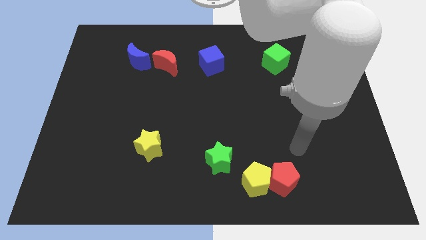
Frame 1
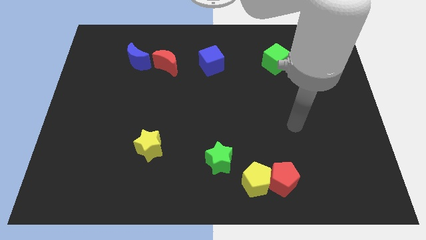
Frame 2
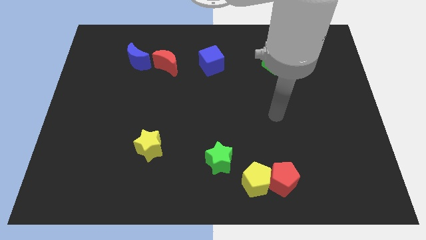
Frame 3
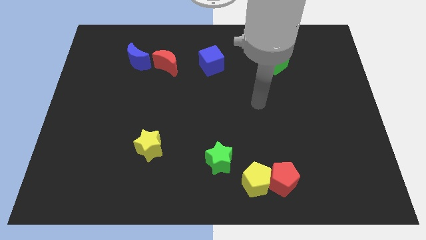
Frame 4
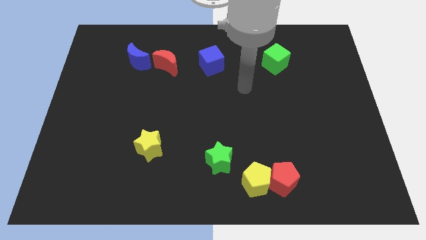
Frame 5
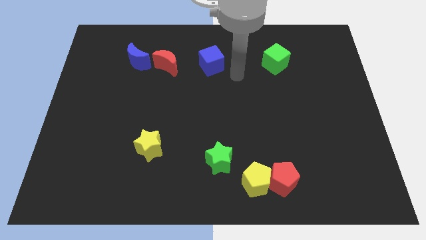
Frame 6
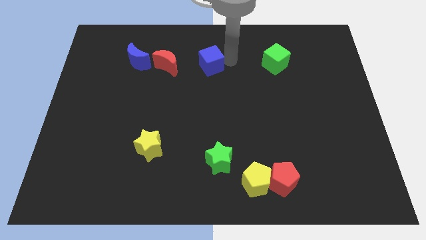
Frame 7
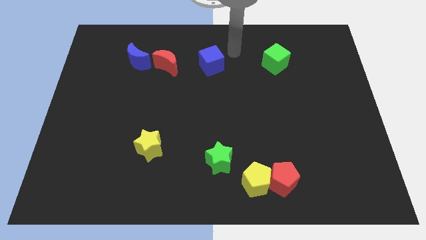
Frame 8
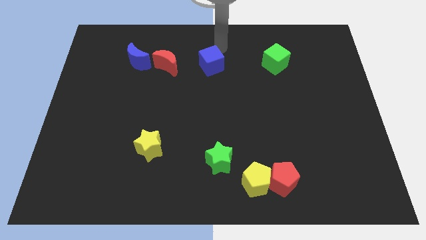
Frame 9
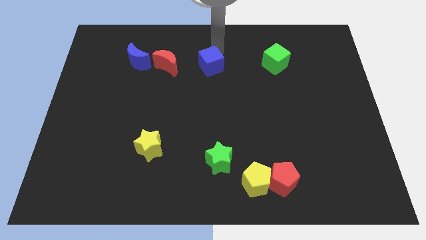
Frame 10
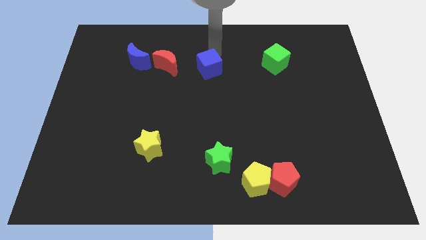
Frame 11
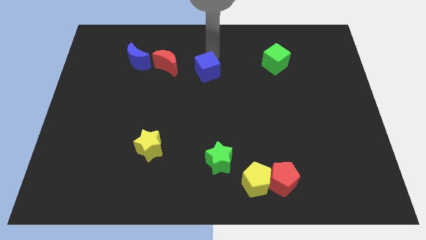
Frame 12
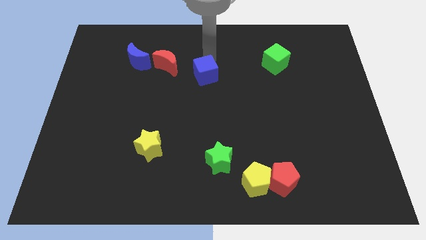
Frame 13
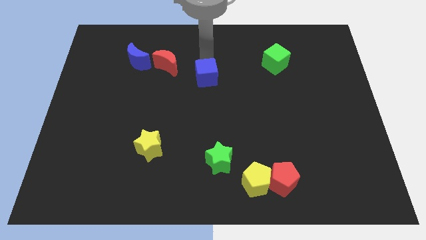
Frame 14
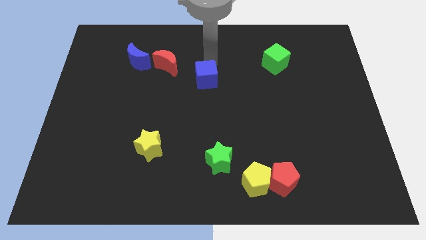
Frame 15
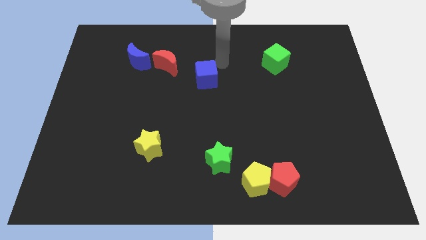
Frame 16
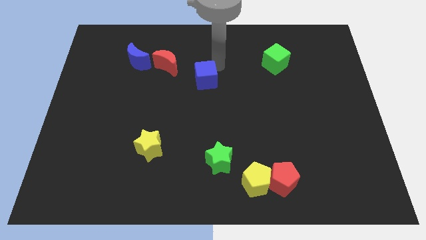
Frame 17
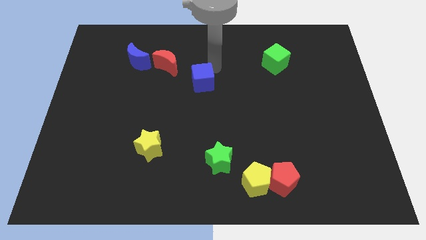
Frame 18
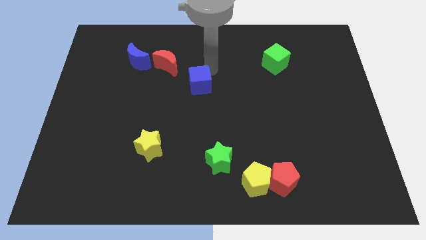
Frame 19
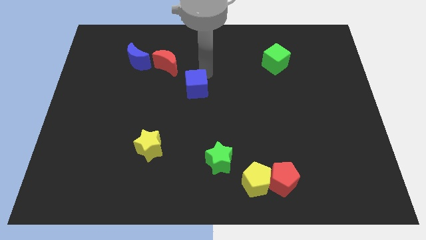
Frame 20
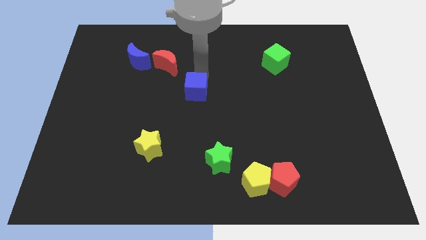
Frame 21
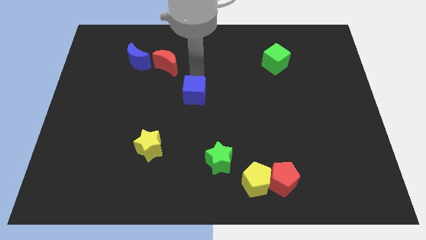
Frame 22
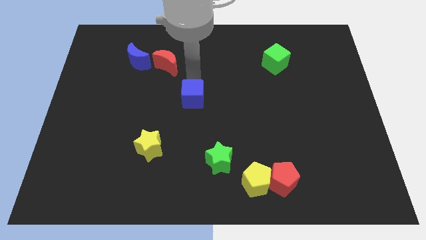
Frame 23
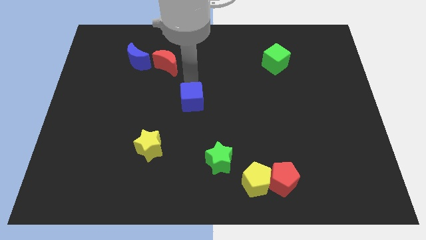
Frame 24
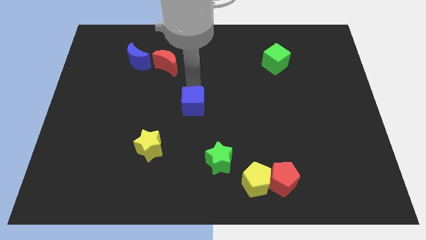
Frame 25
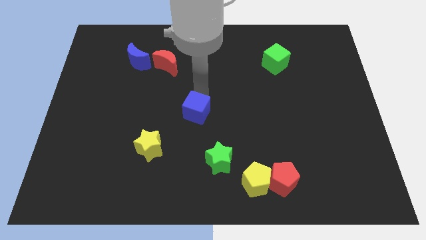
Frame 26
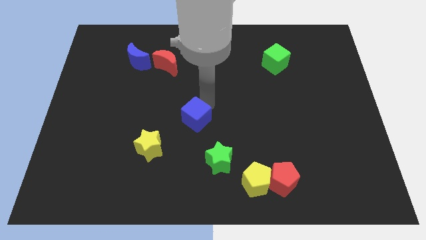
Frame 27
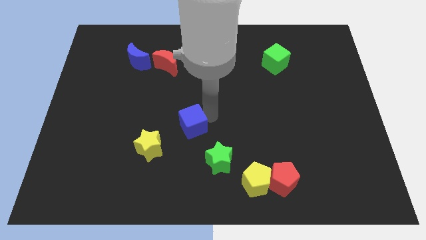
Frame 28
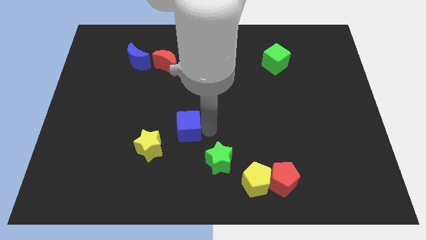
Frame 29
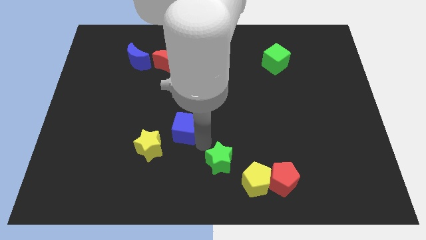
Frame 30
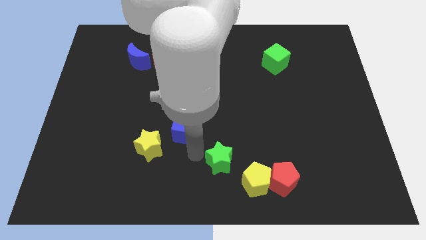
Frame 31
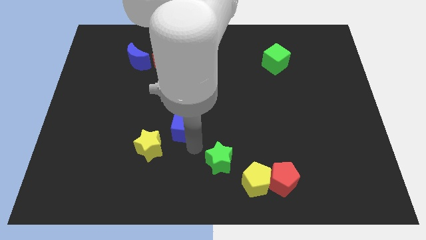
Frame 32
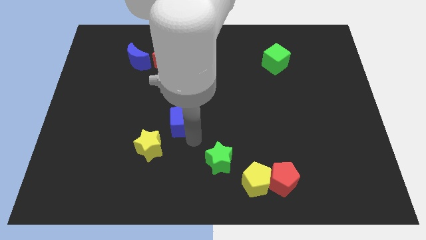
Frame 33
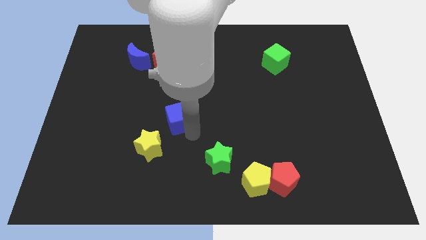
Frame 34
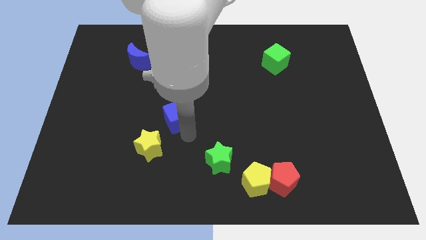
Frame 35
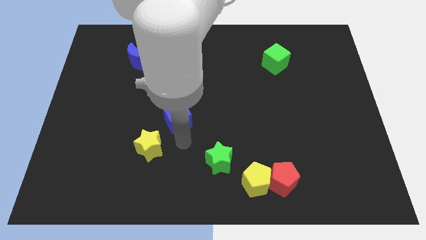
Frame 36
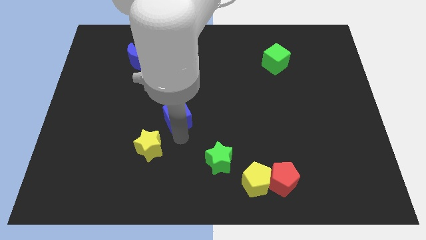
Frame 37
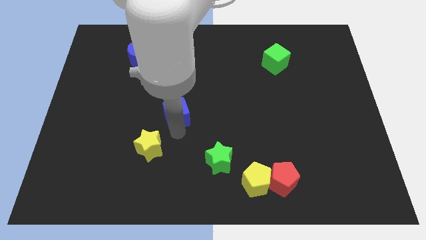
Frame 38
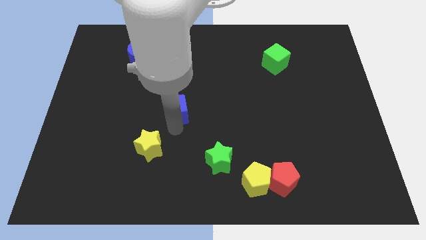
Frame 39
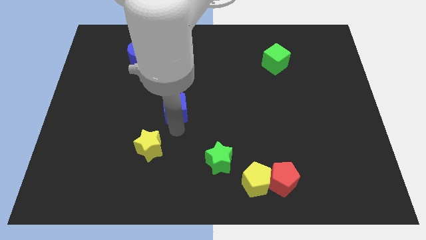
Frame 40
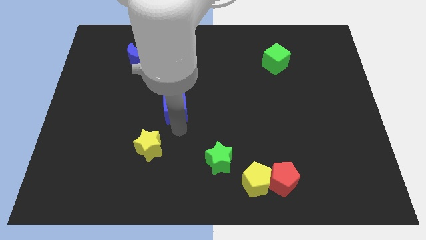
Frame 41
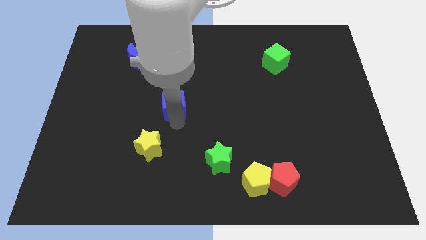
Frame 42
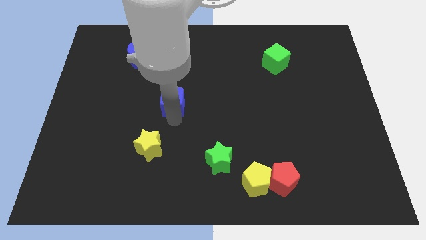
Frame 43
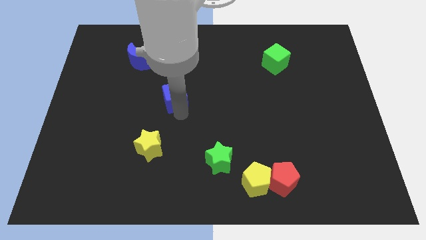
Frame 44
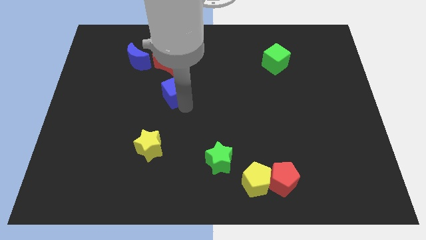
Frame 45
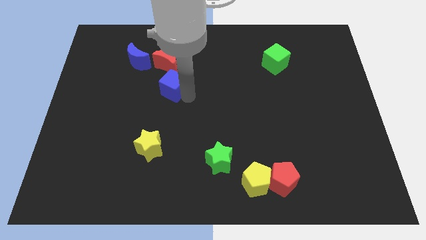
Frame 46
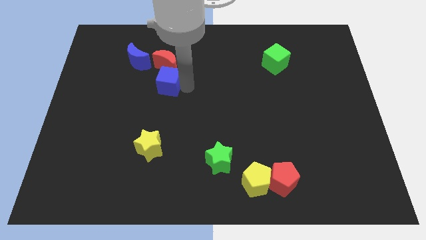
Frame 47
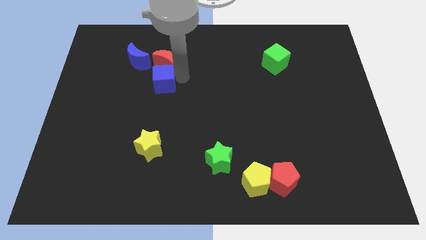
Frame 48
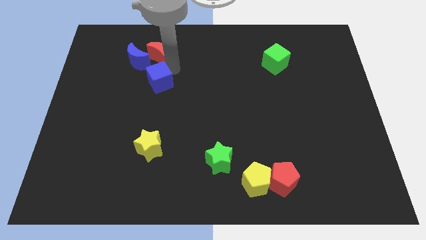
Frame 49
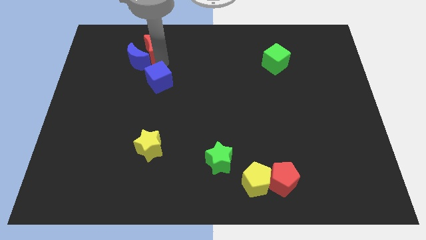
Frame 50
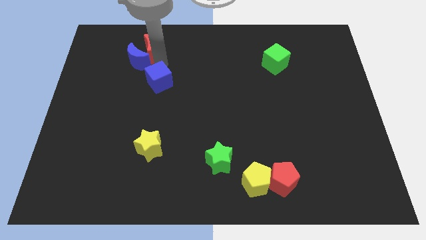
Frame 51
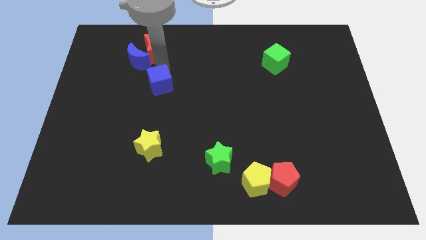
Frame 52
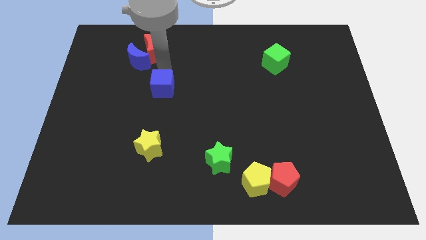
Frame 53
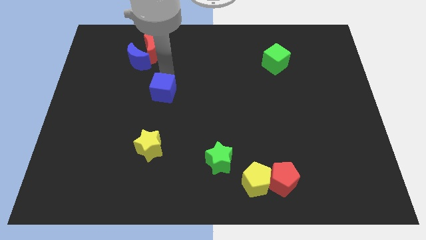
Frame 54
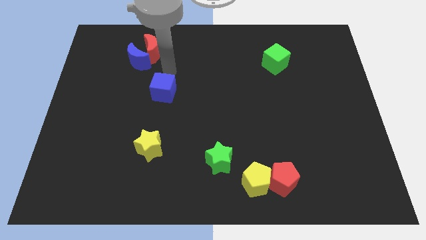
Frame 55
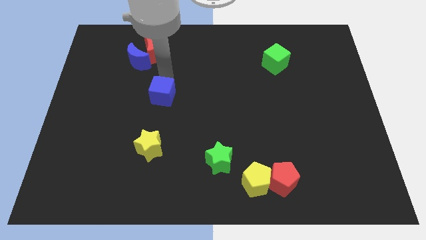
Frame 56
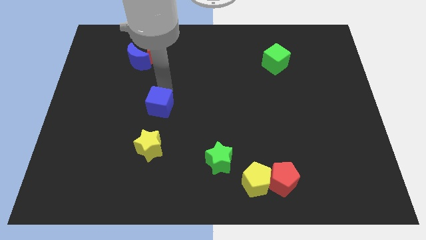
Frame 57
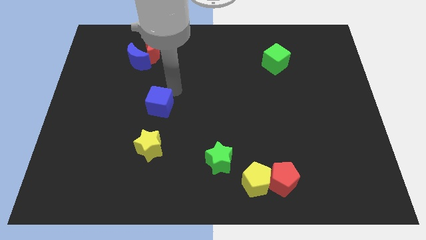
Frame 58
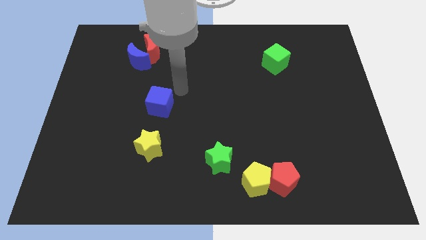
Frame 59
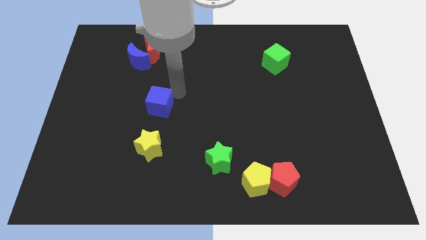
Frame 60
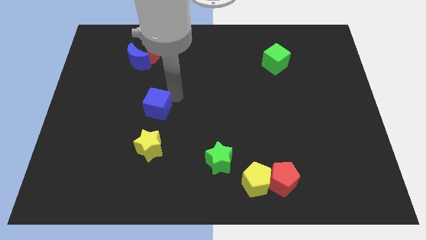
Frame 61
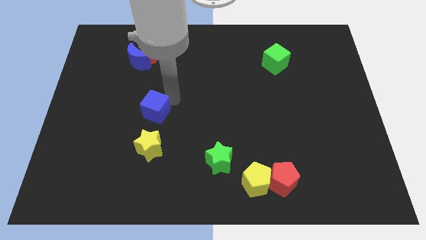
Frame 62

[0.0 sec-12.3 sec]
move the blue cube diagonally down and to the left

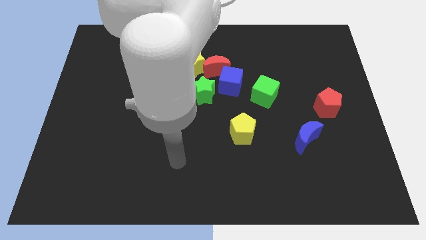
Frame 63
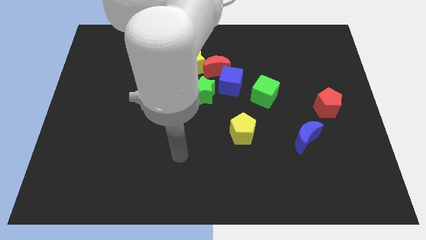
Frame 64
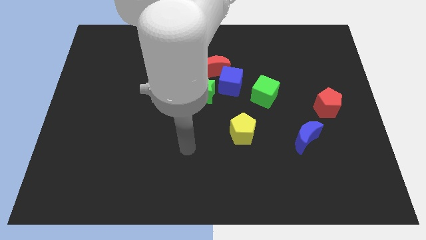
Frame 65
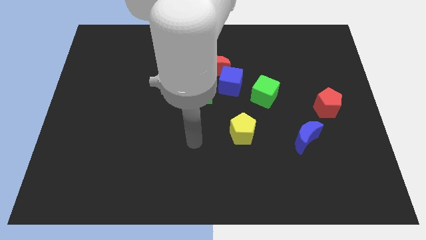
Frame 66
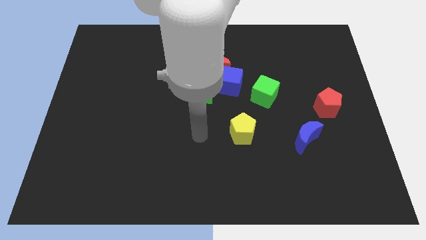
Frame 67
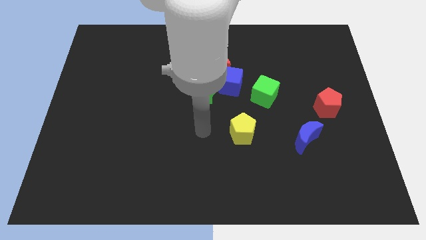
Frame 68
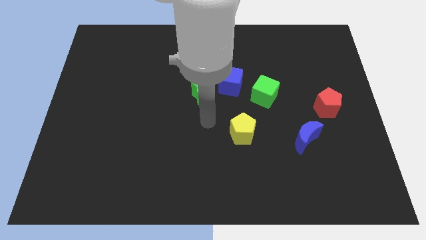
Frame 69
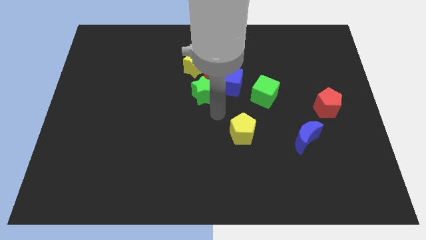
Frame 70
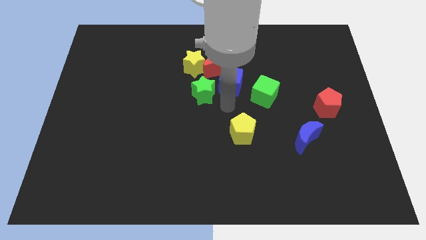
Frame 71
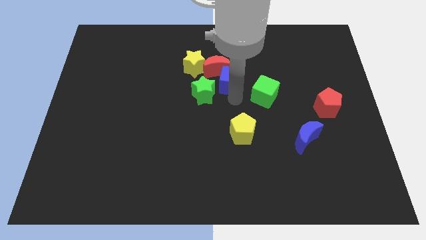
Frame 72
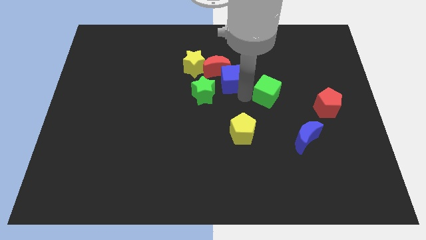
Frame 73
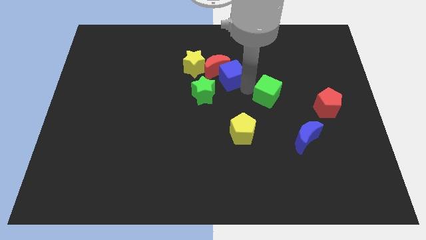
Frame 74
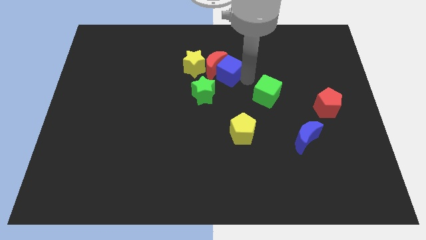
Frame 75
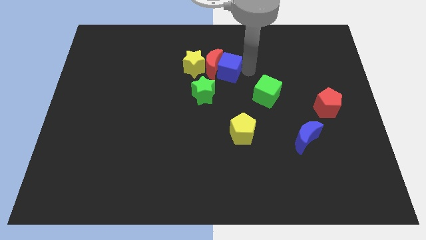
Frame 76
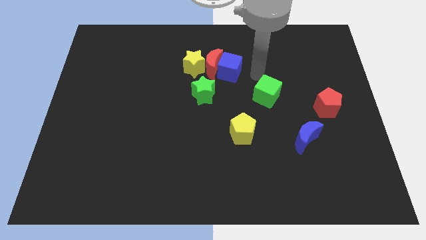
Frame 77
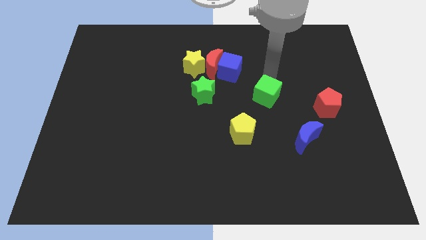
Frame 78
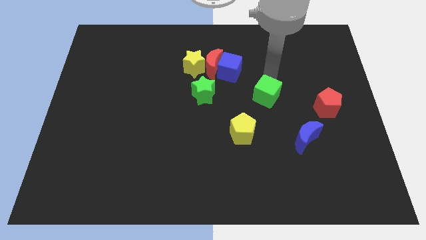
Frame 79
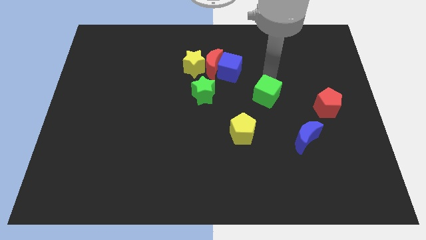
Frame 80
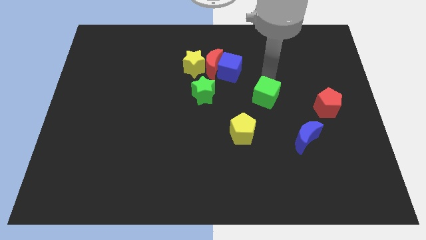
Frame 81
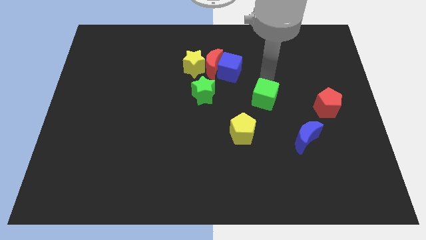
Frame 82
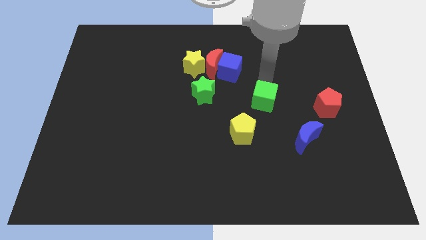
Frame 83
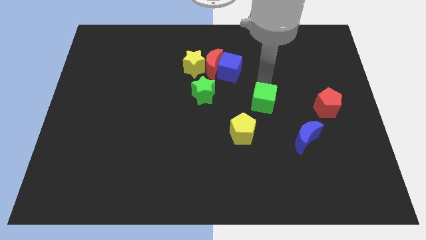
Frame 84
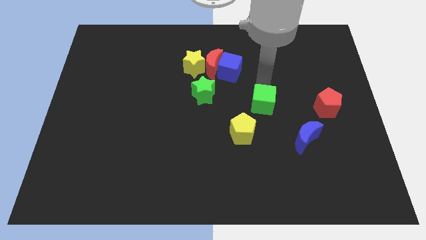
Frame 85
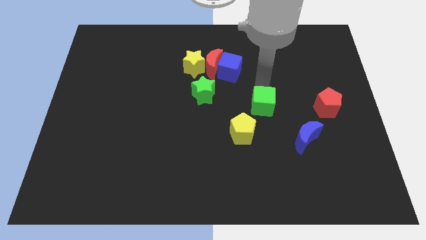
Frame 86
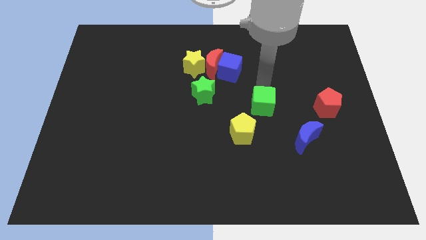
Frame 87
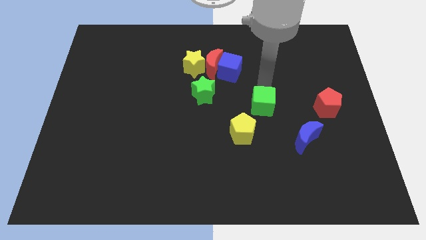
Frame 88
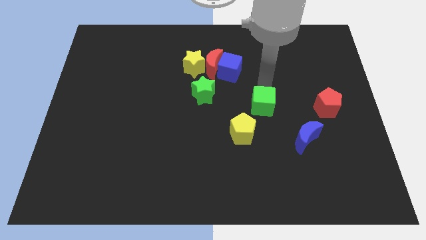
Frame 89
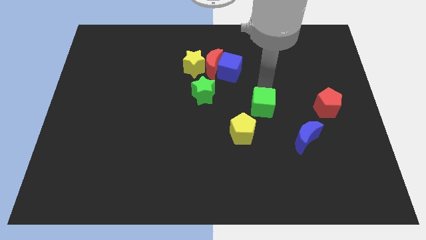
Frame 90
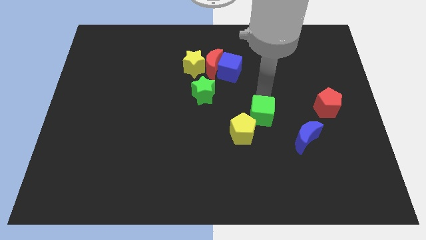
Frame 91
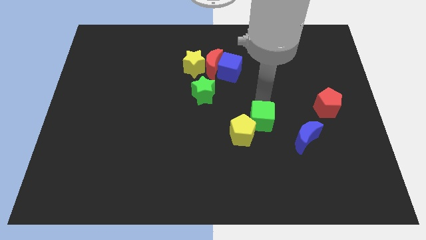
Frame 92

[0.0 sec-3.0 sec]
move the green cube downwards slightly
